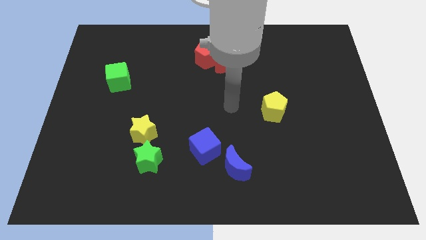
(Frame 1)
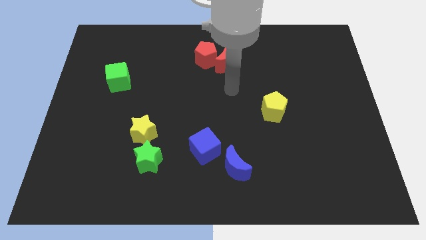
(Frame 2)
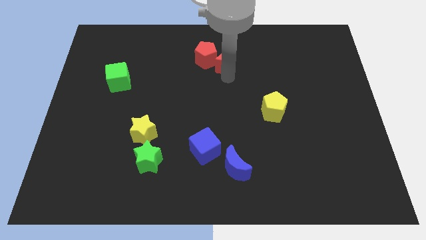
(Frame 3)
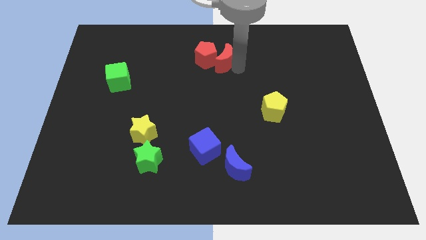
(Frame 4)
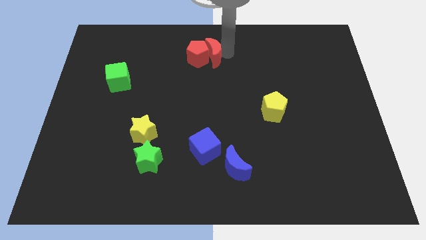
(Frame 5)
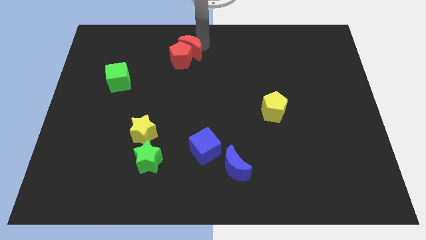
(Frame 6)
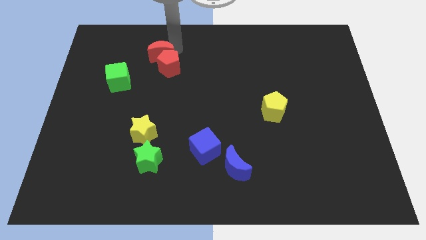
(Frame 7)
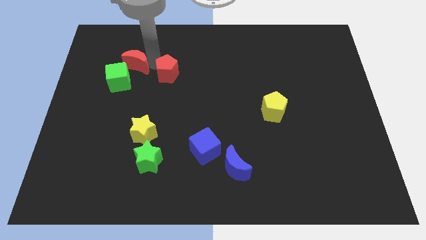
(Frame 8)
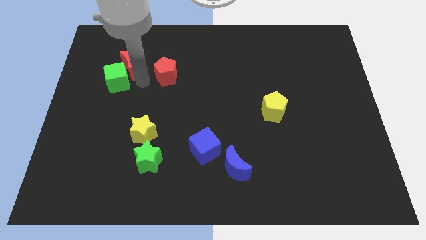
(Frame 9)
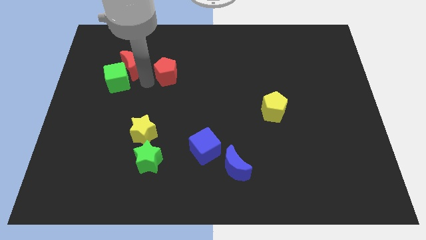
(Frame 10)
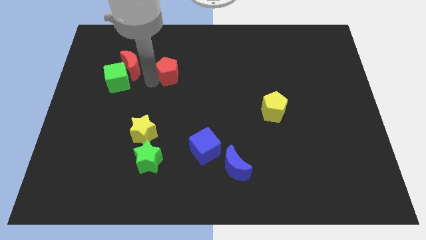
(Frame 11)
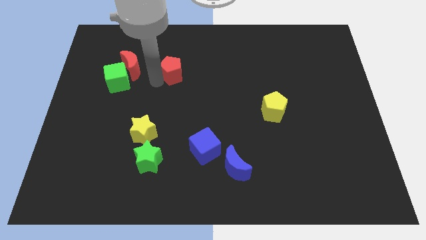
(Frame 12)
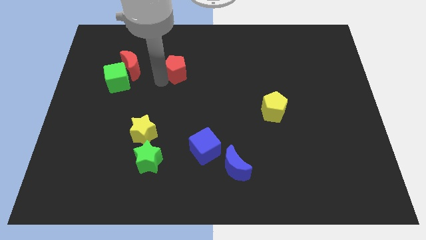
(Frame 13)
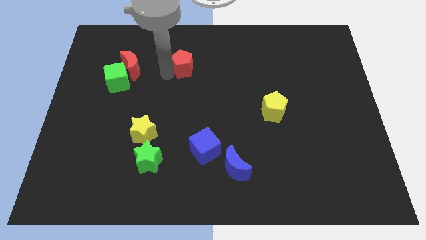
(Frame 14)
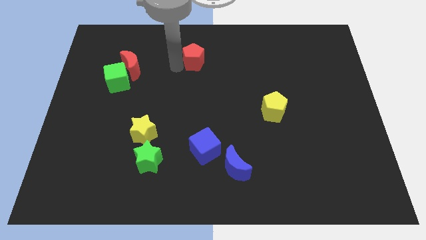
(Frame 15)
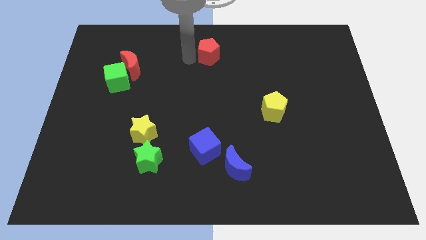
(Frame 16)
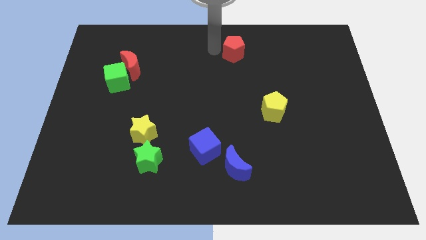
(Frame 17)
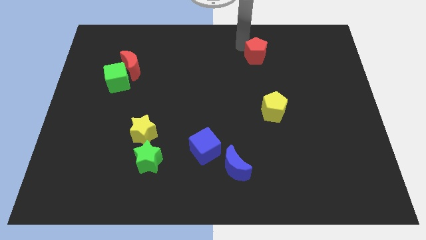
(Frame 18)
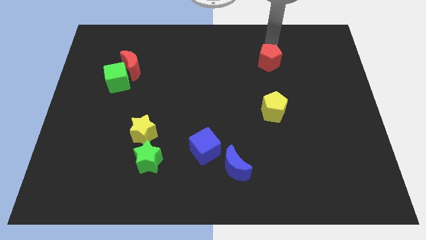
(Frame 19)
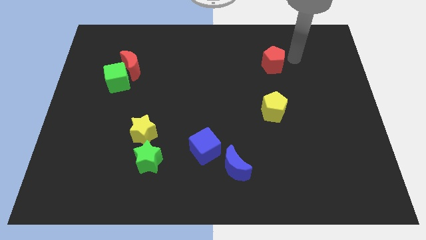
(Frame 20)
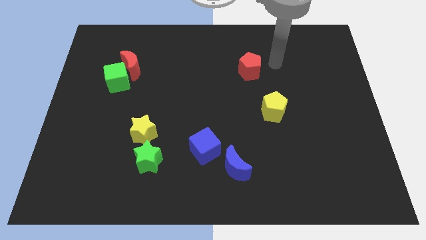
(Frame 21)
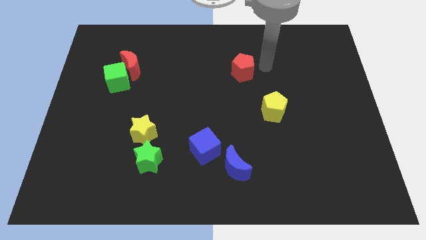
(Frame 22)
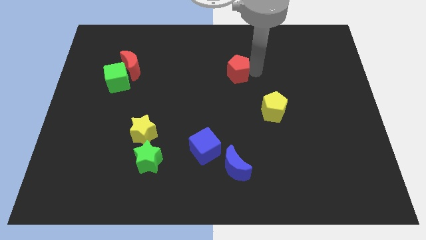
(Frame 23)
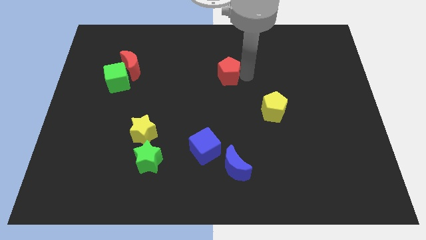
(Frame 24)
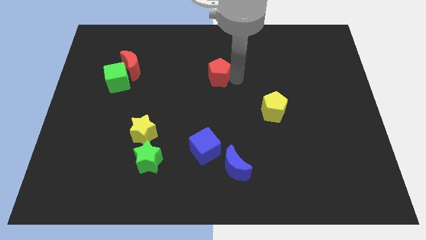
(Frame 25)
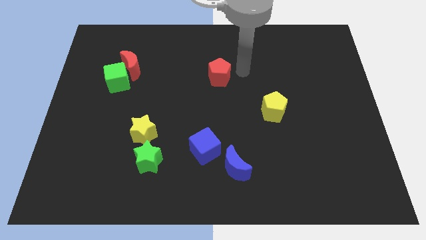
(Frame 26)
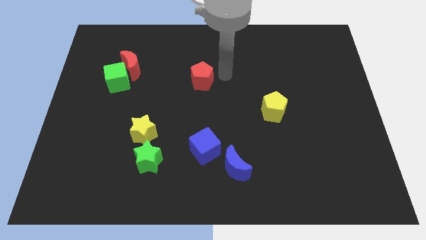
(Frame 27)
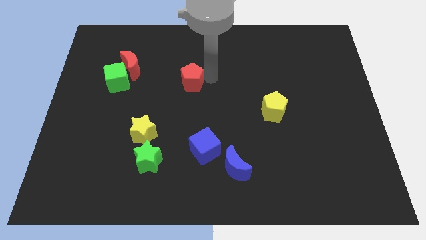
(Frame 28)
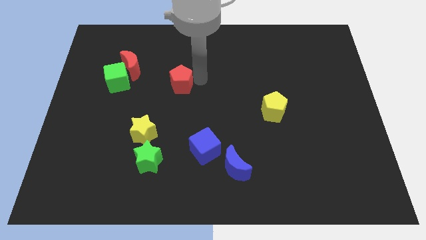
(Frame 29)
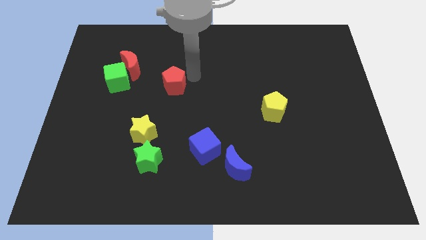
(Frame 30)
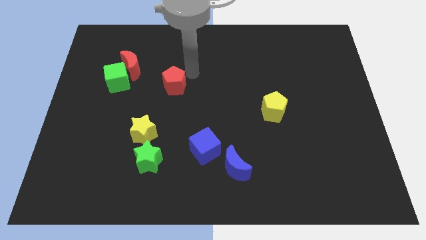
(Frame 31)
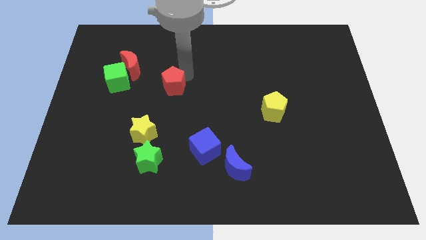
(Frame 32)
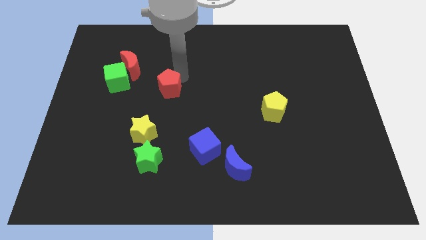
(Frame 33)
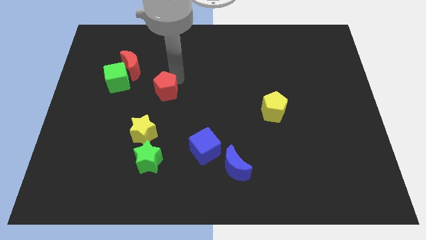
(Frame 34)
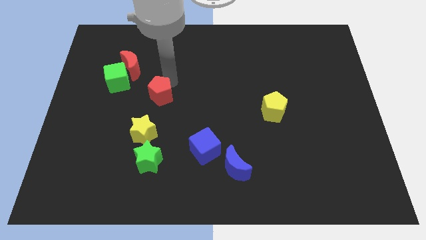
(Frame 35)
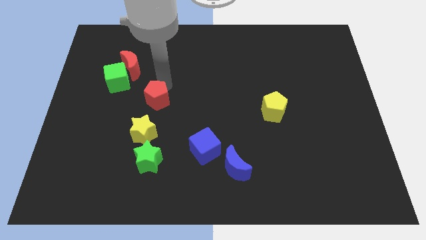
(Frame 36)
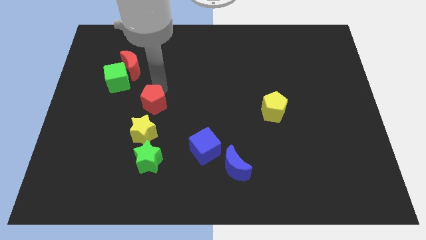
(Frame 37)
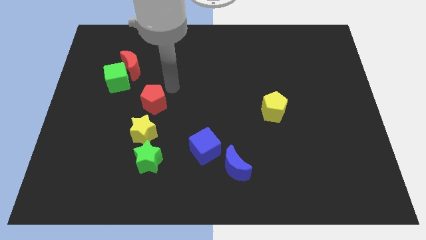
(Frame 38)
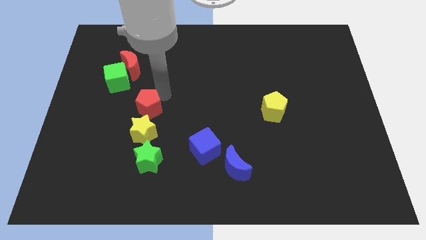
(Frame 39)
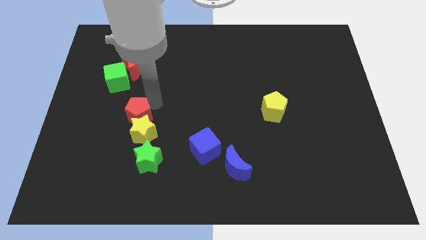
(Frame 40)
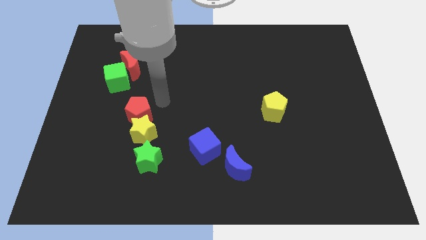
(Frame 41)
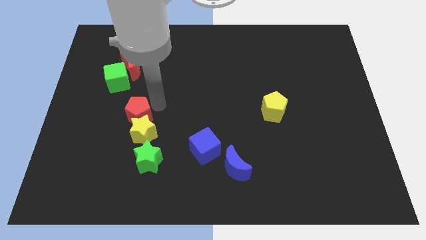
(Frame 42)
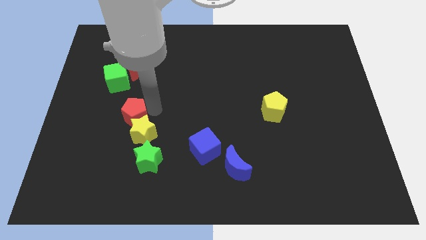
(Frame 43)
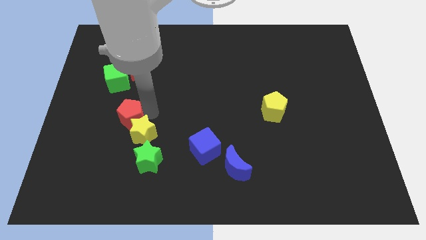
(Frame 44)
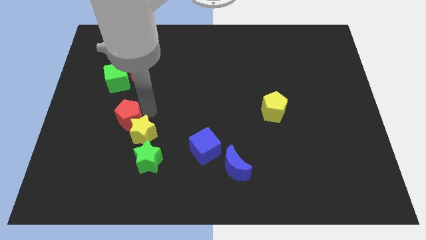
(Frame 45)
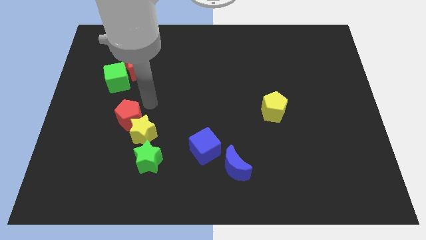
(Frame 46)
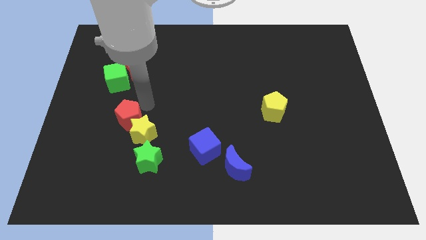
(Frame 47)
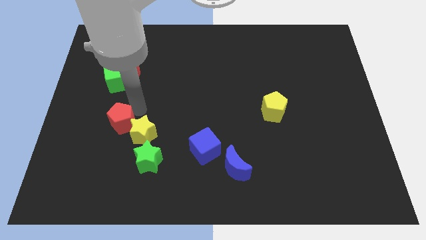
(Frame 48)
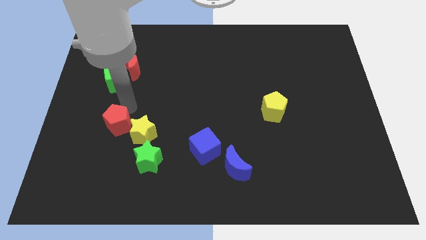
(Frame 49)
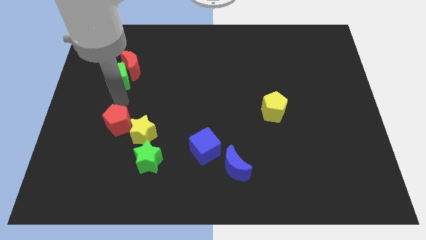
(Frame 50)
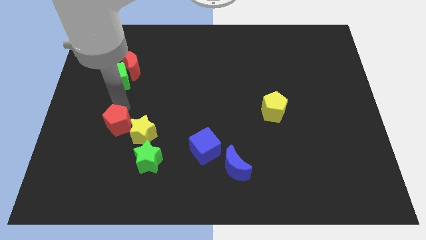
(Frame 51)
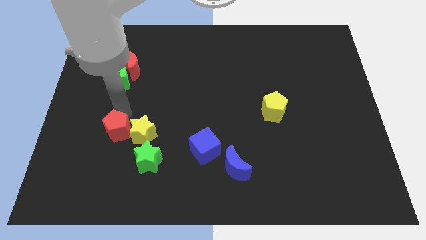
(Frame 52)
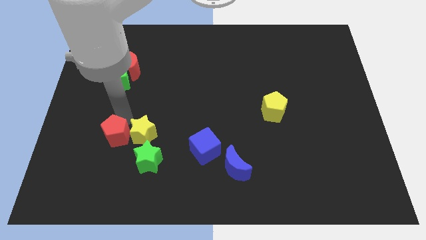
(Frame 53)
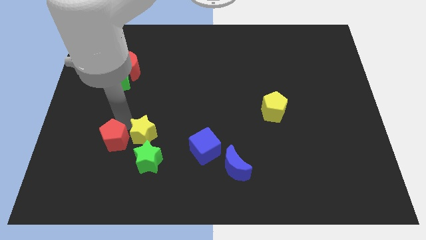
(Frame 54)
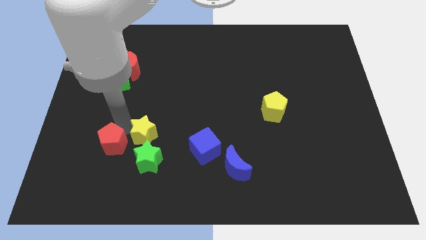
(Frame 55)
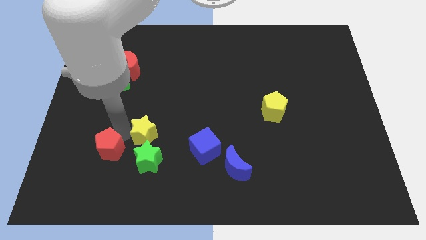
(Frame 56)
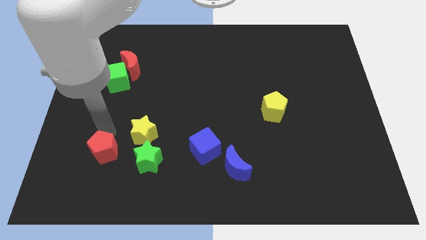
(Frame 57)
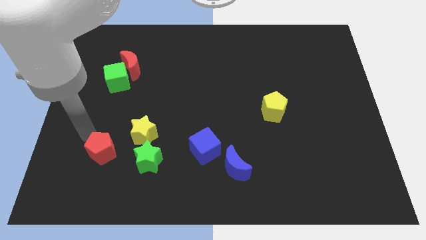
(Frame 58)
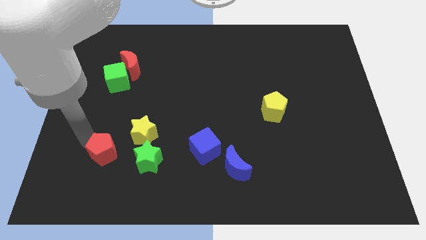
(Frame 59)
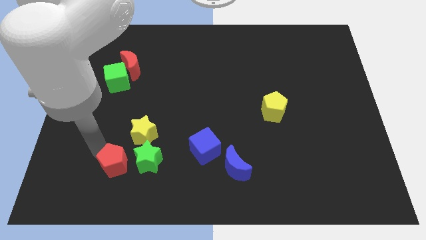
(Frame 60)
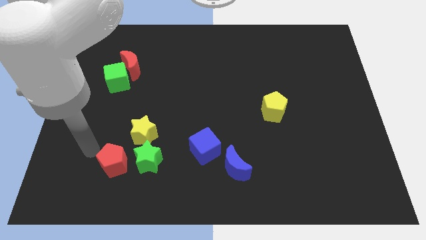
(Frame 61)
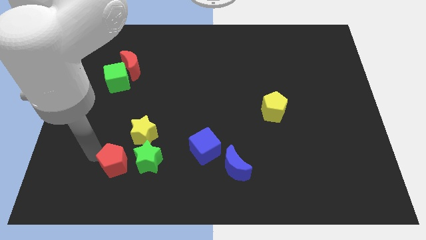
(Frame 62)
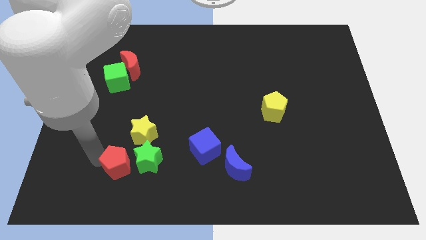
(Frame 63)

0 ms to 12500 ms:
move the red pentagon below the yellow star

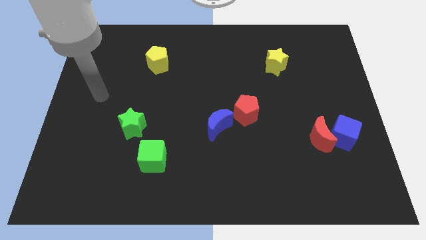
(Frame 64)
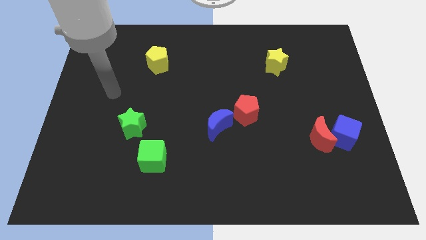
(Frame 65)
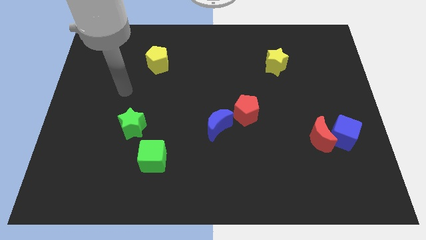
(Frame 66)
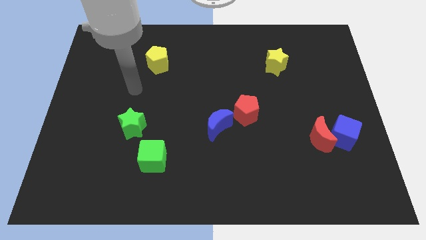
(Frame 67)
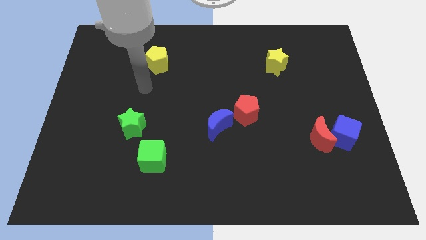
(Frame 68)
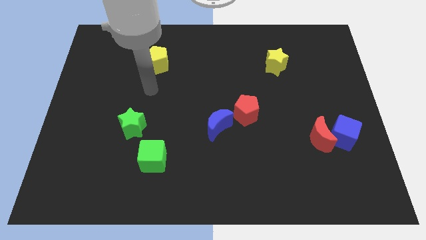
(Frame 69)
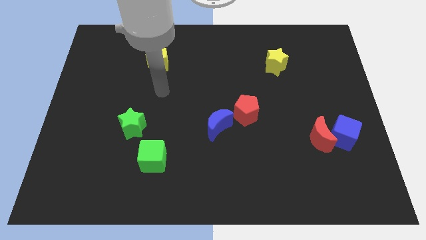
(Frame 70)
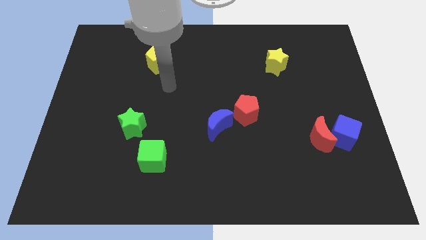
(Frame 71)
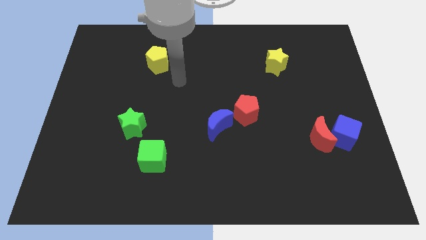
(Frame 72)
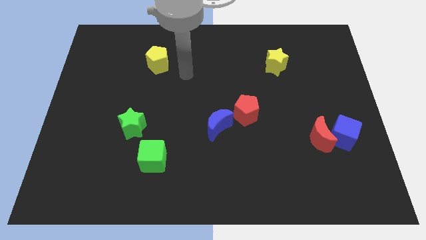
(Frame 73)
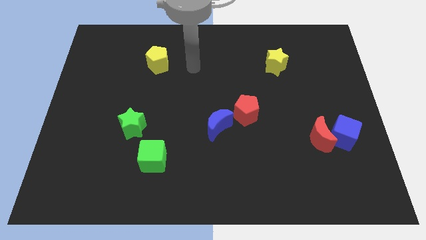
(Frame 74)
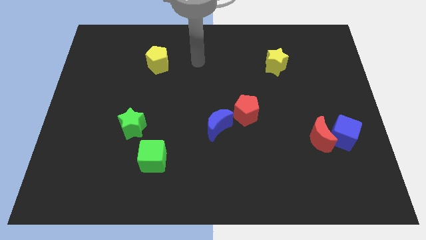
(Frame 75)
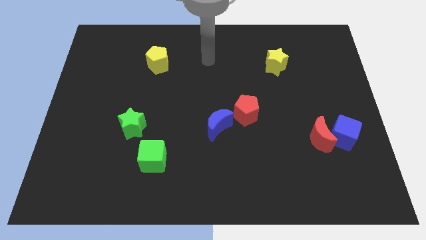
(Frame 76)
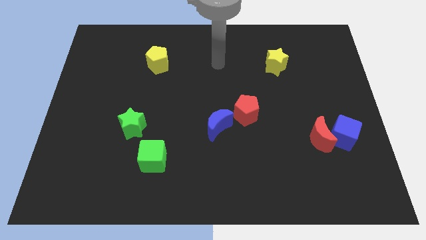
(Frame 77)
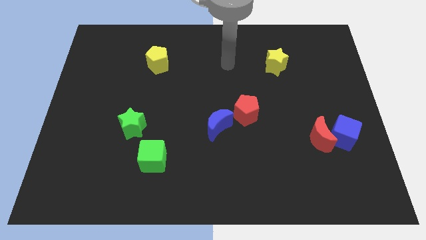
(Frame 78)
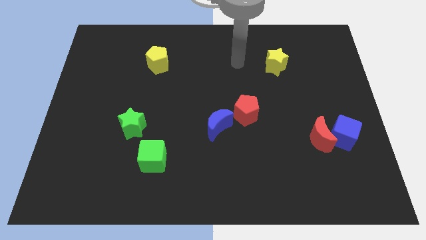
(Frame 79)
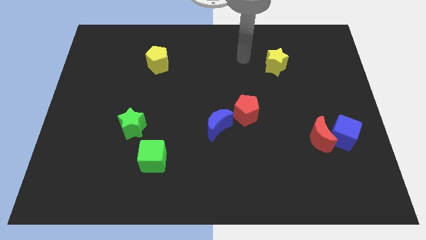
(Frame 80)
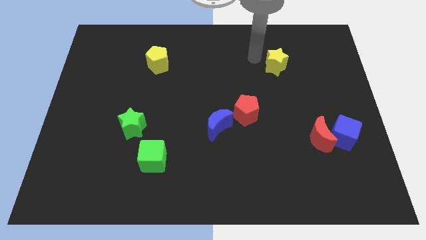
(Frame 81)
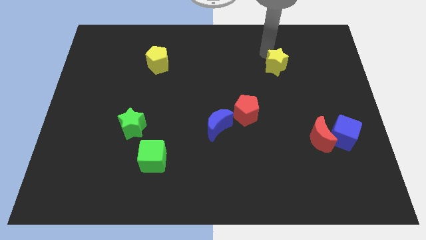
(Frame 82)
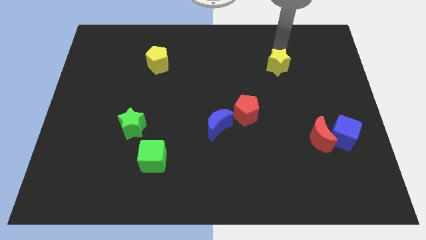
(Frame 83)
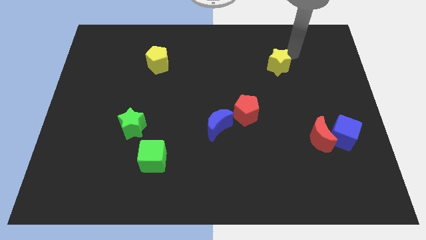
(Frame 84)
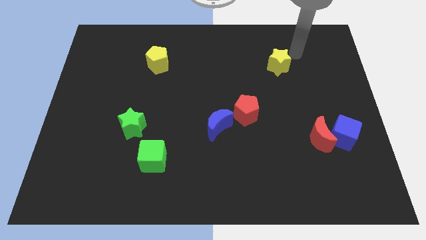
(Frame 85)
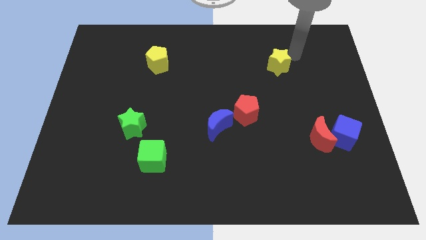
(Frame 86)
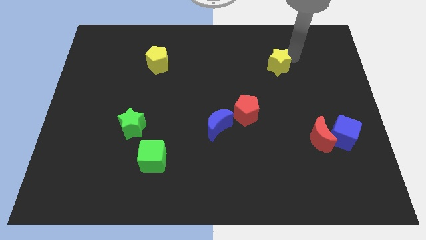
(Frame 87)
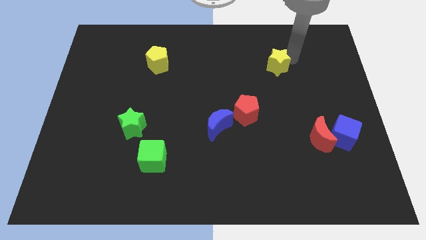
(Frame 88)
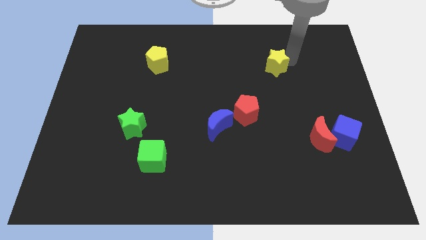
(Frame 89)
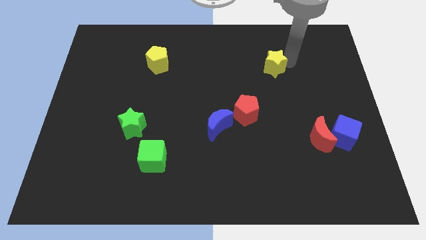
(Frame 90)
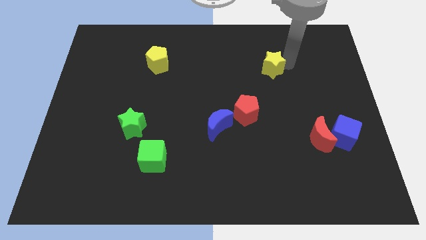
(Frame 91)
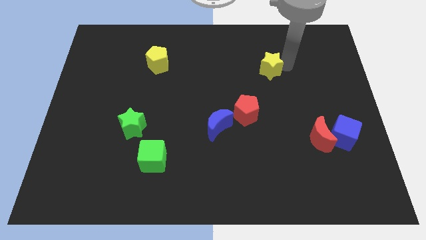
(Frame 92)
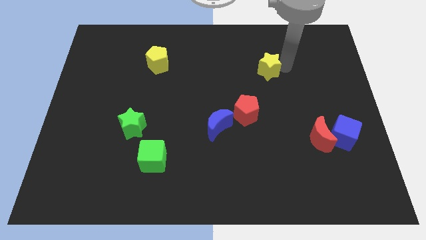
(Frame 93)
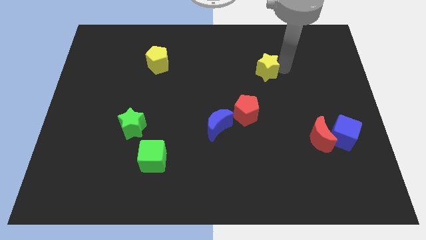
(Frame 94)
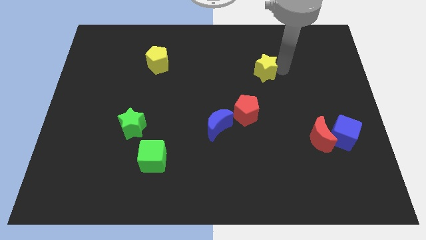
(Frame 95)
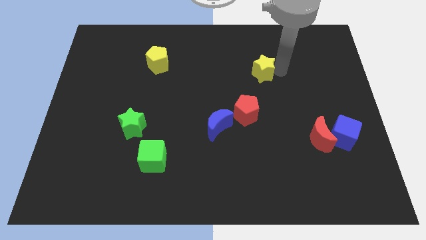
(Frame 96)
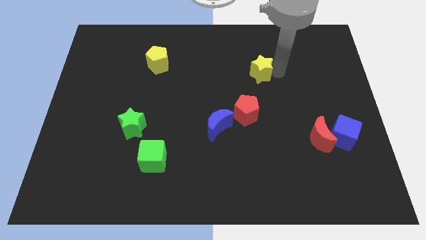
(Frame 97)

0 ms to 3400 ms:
put the yellow star to the top side of the red pentagon
